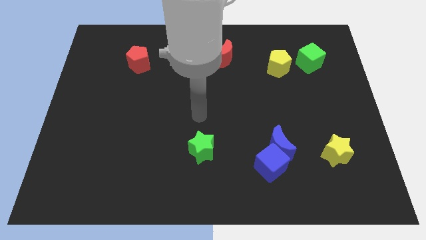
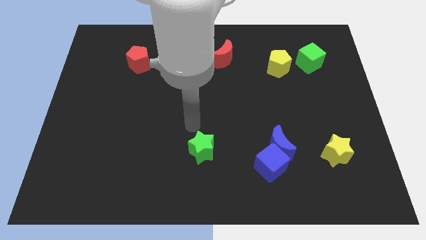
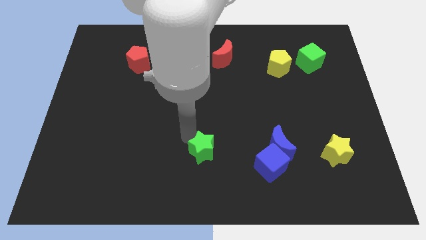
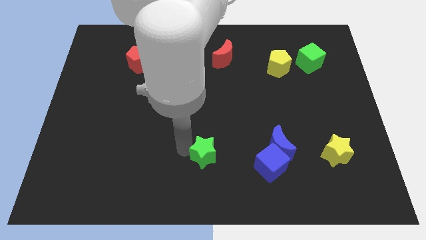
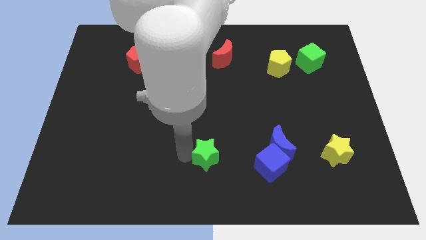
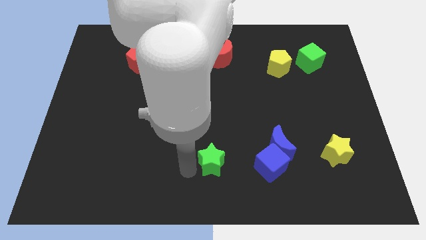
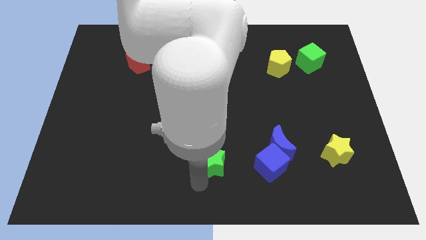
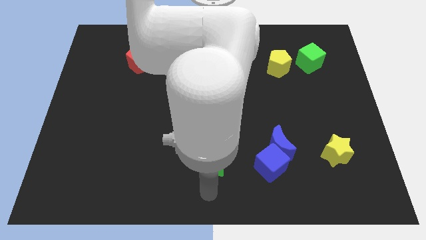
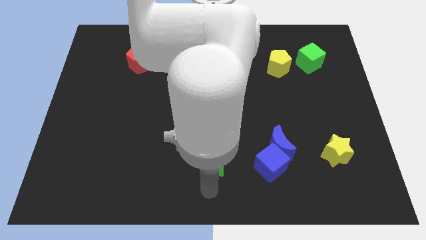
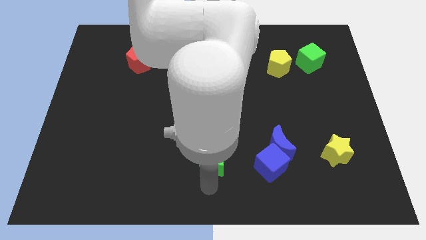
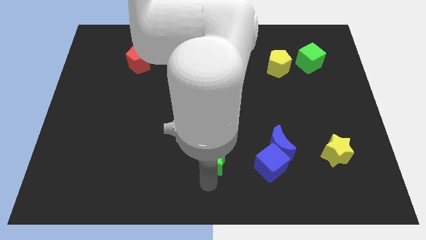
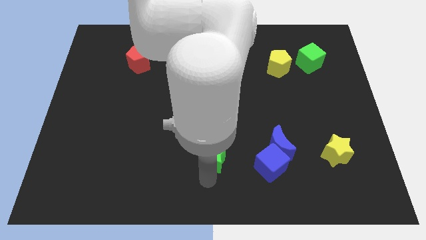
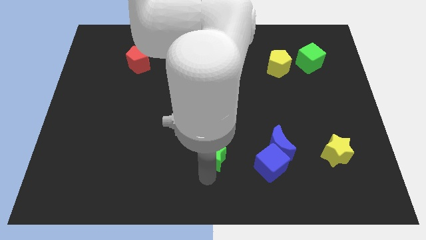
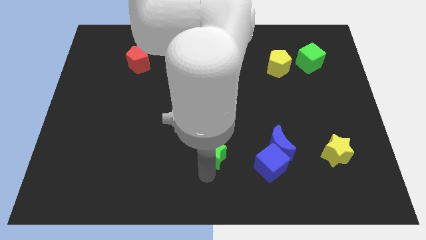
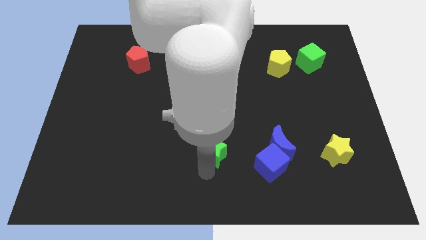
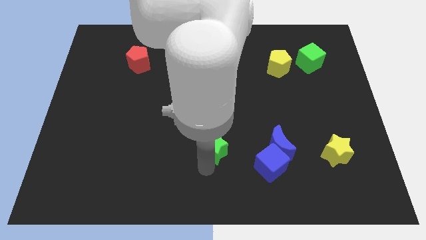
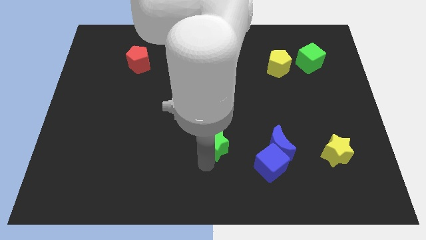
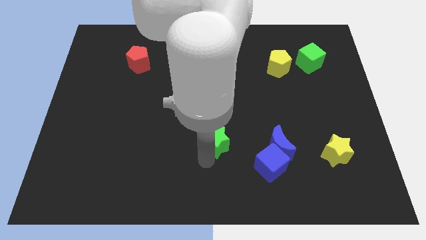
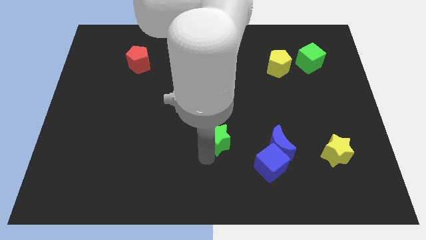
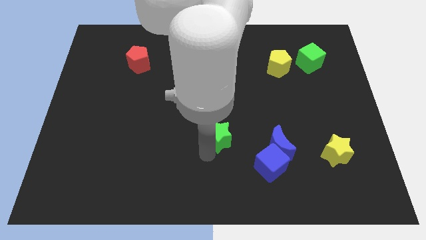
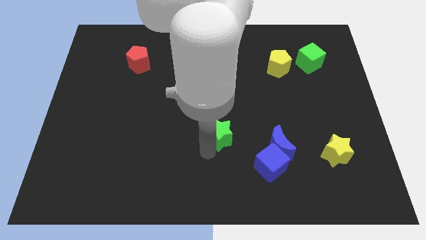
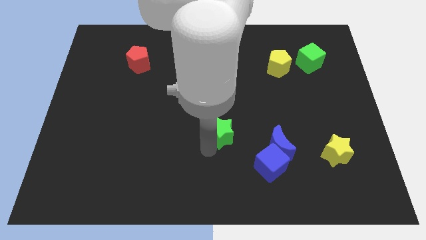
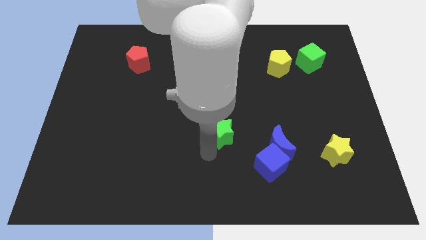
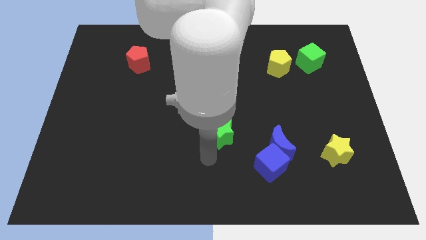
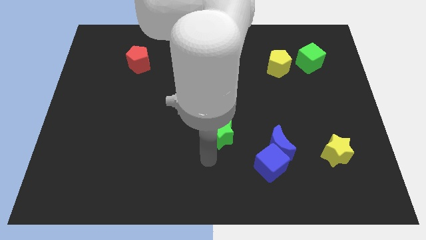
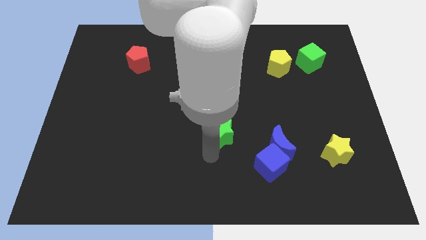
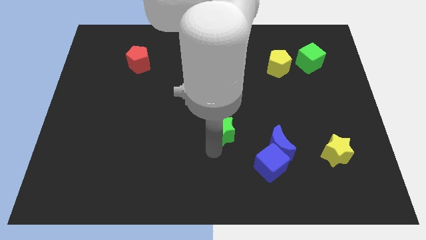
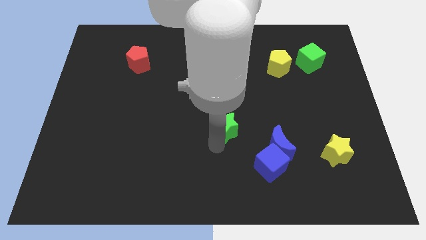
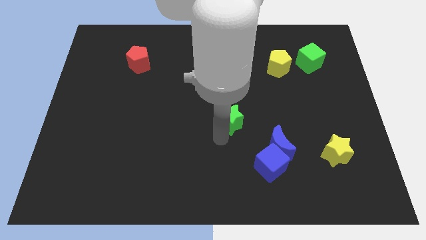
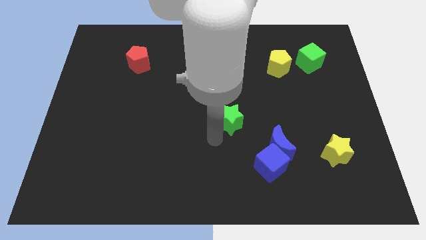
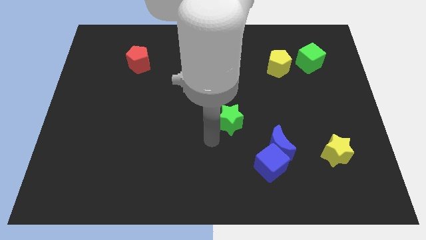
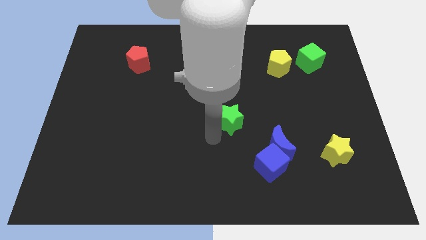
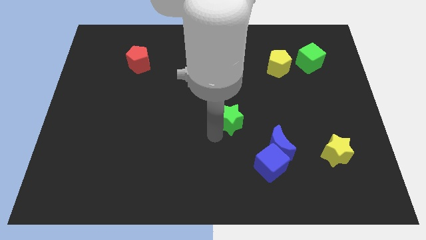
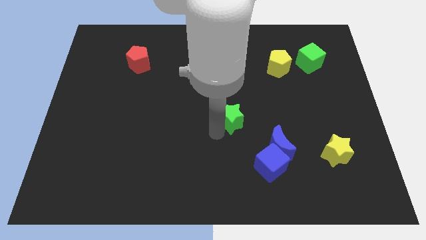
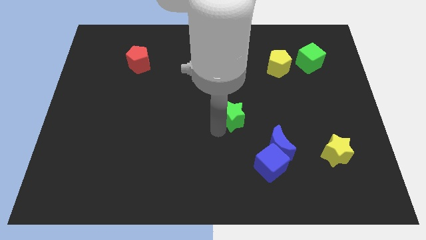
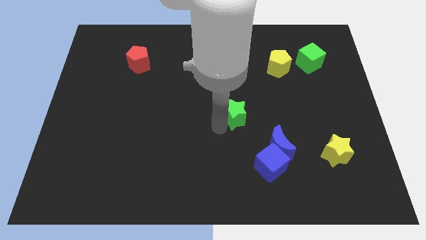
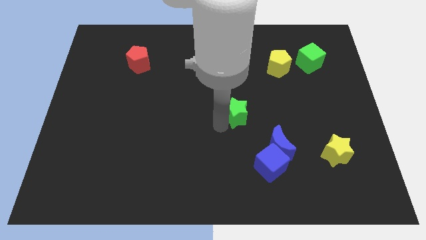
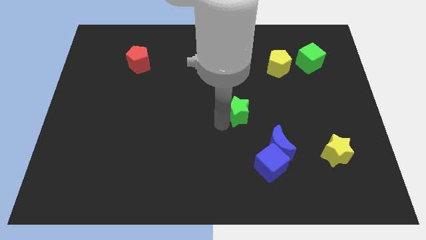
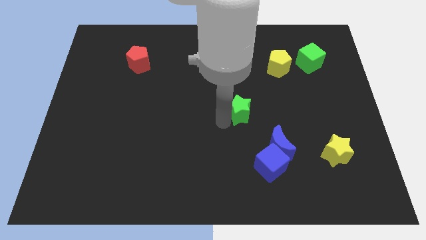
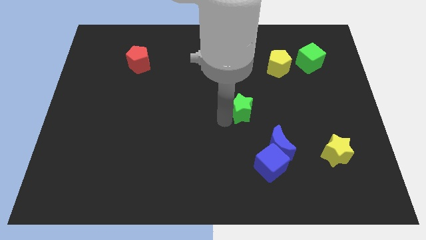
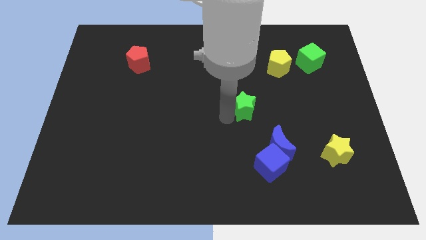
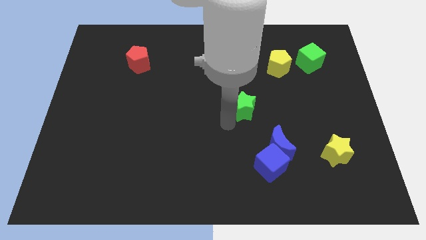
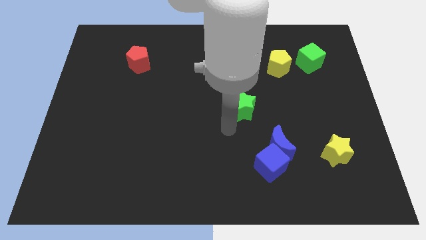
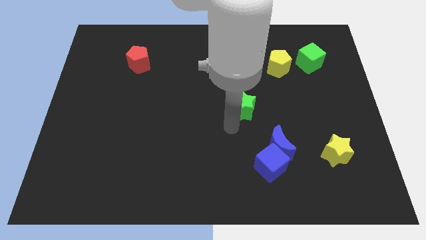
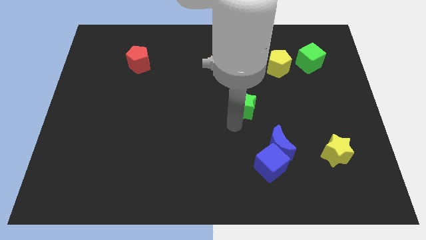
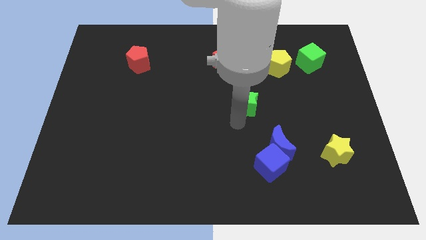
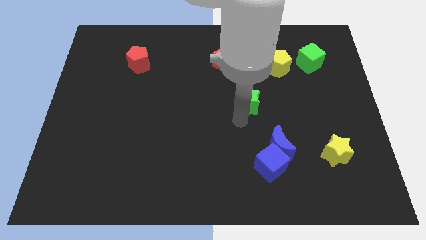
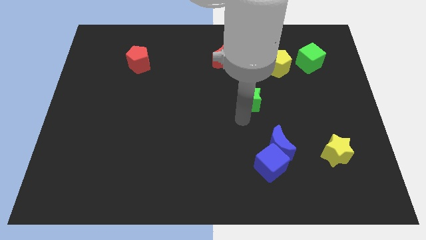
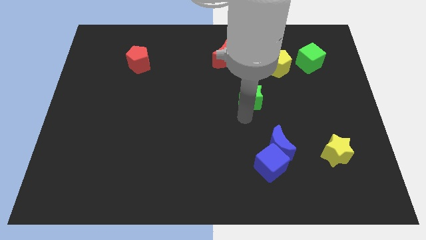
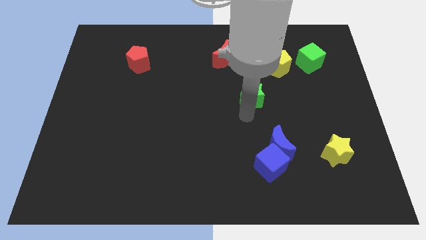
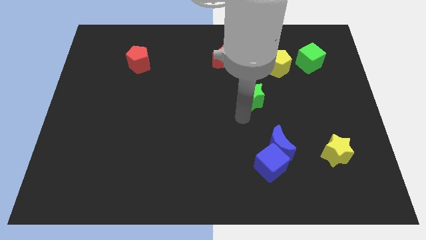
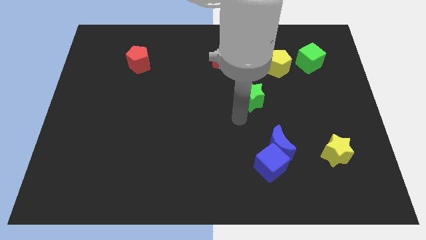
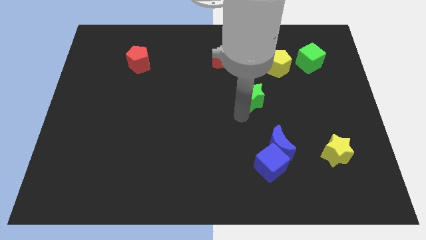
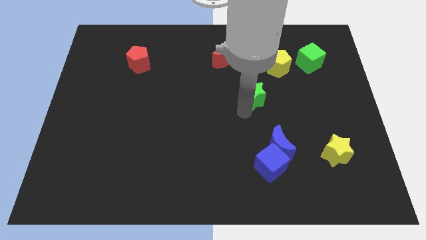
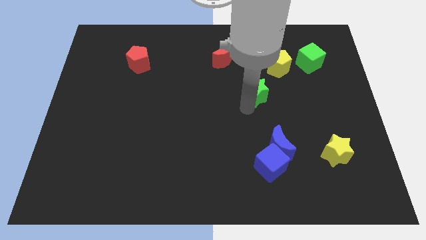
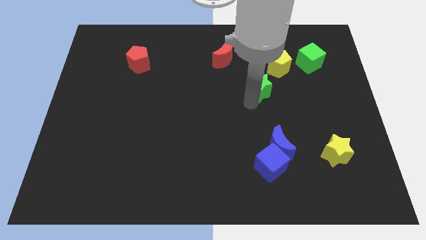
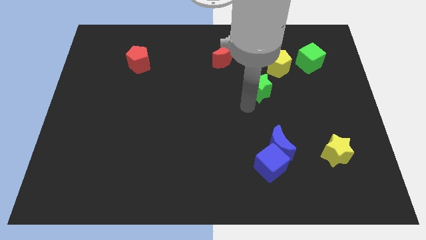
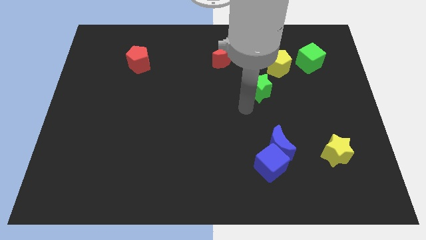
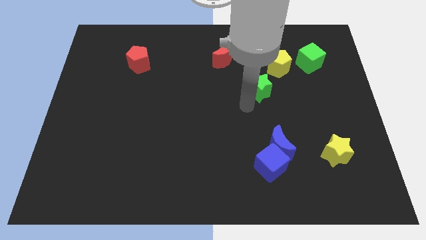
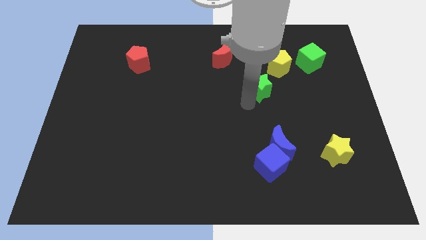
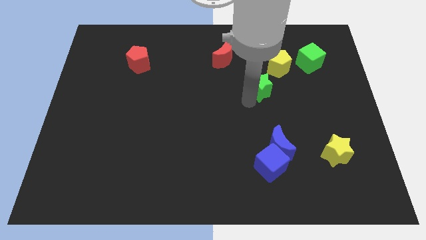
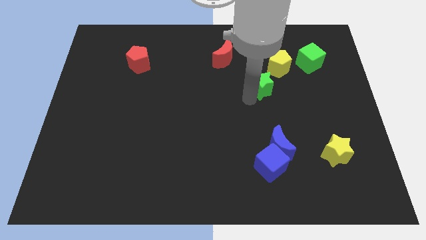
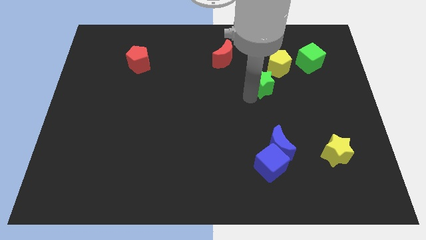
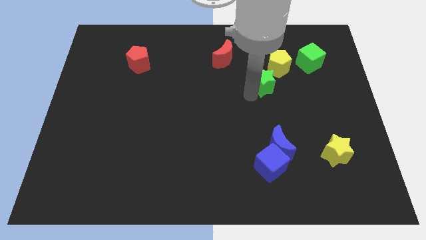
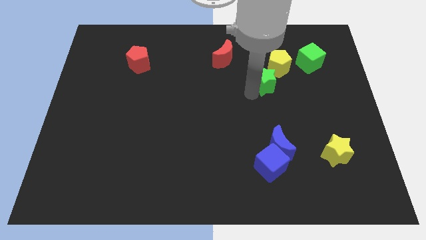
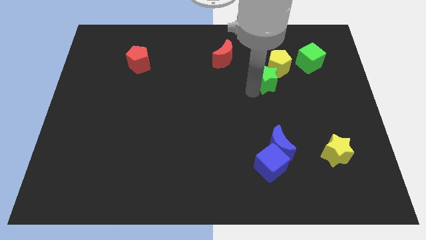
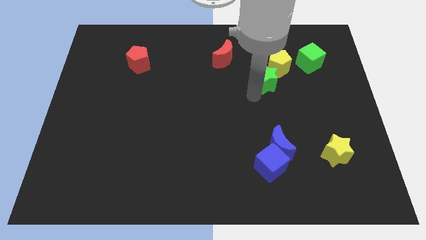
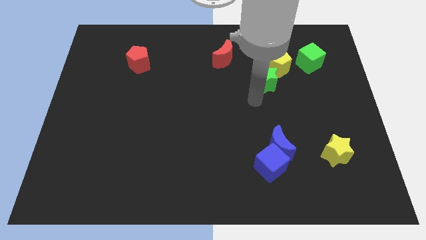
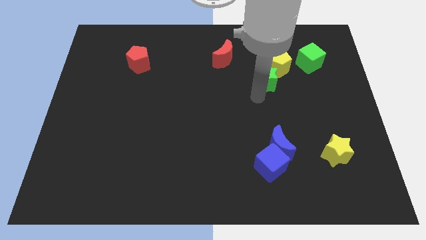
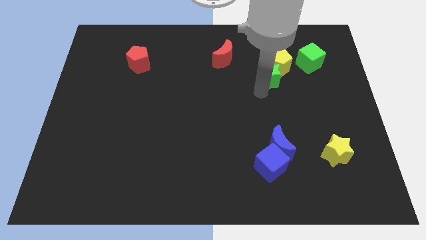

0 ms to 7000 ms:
move the green star towards the yellow pentagon

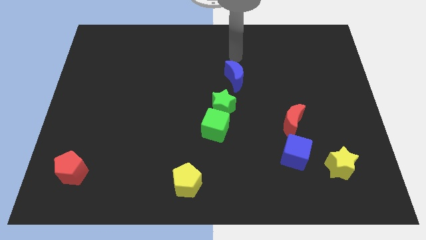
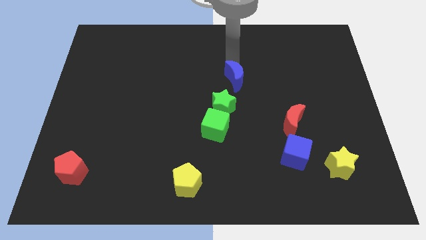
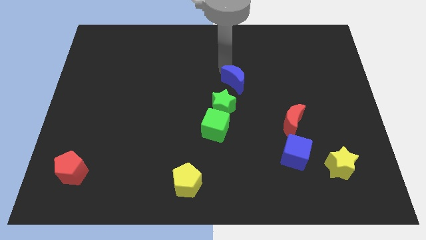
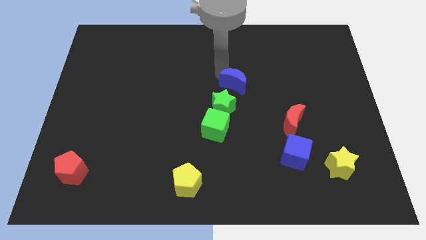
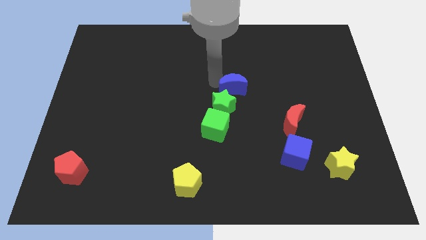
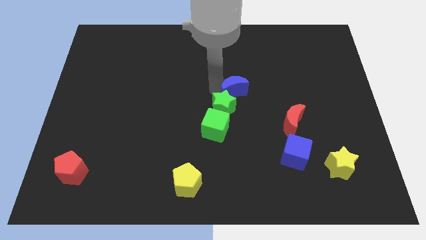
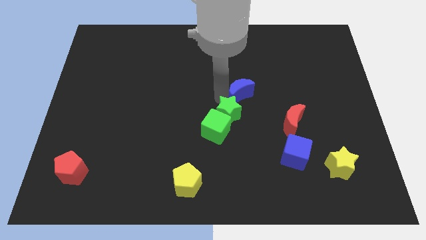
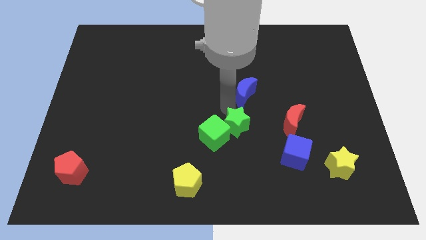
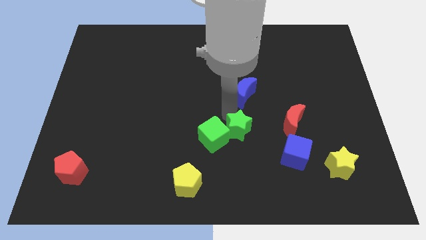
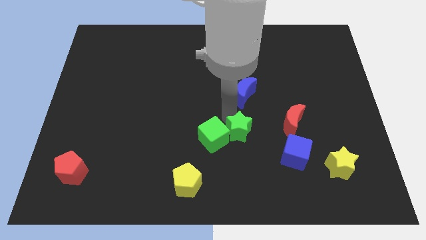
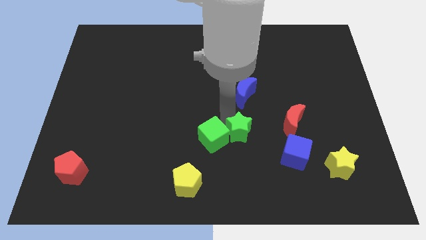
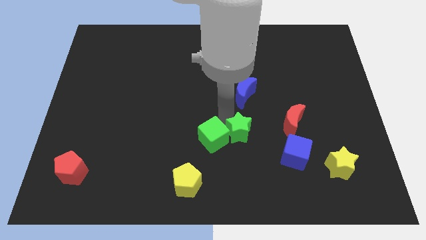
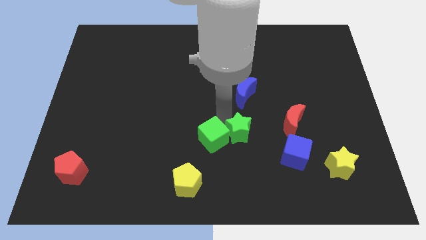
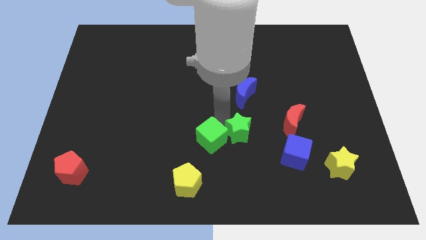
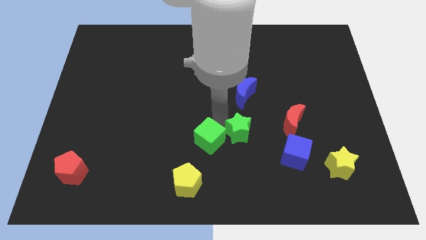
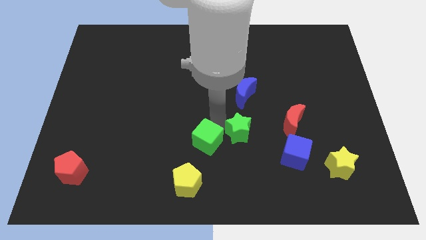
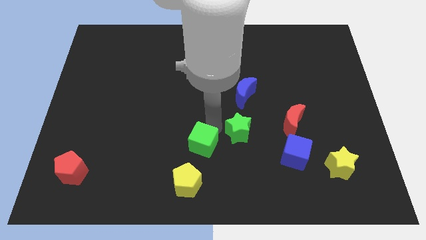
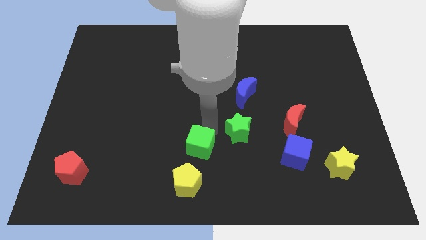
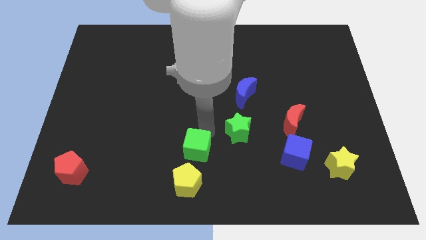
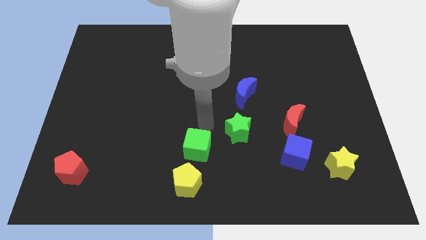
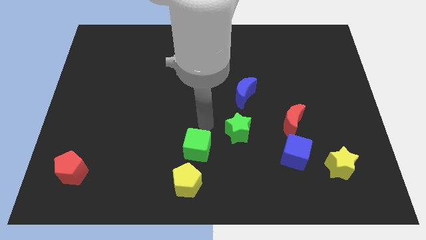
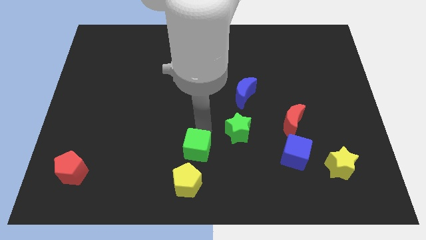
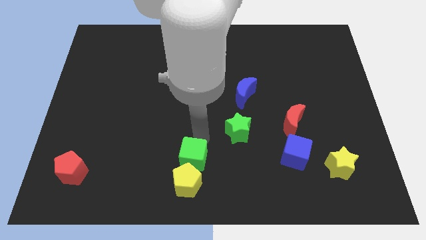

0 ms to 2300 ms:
put the green cube to the yellow pentagon
